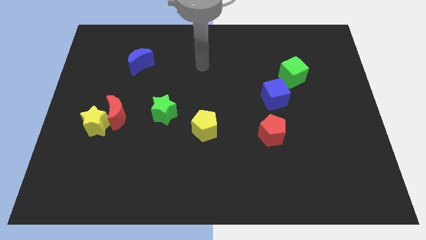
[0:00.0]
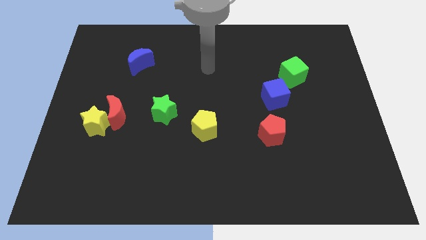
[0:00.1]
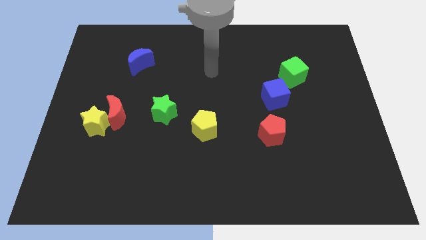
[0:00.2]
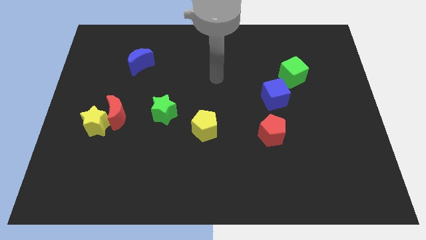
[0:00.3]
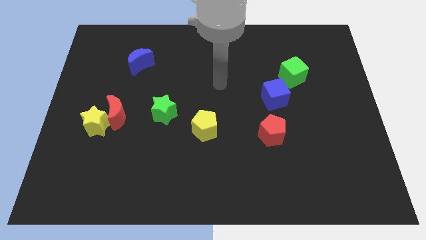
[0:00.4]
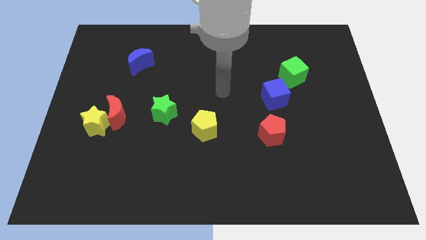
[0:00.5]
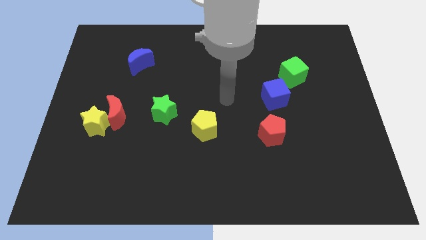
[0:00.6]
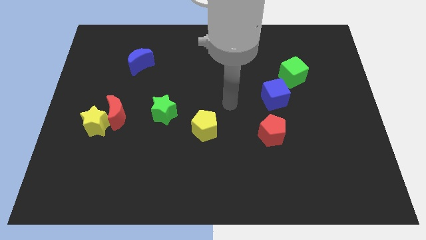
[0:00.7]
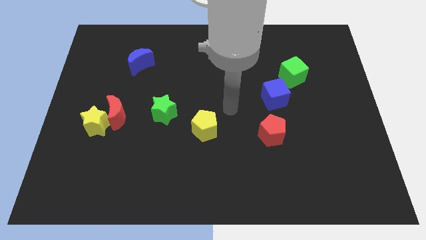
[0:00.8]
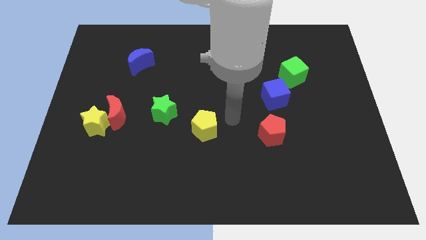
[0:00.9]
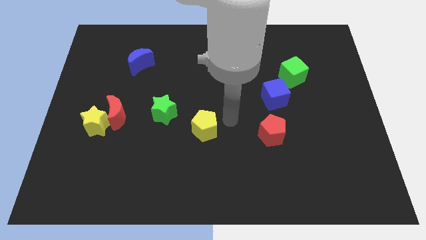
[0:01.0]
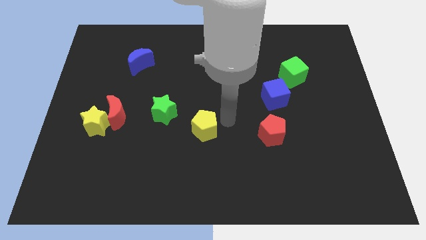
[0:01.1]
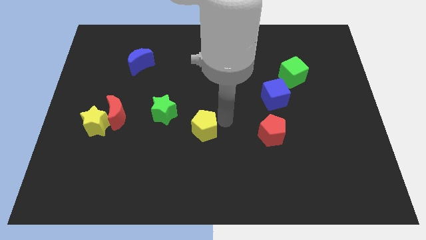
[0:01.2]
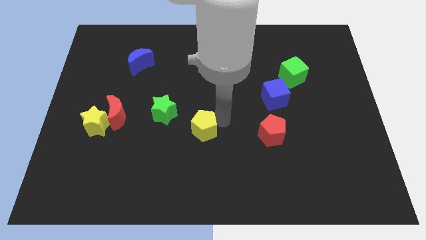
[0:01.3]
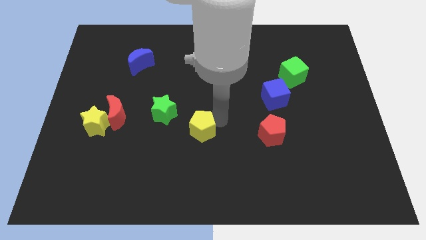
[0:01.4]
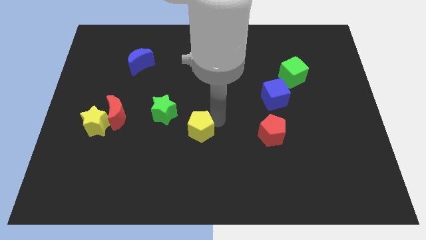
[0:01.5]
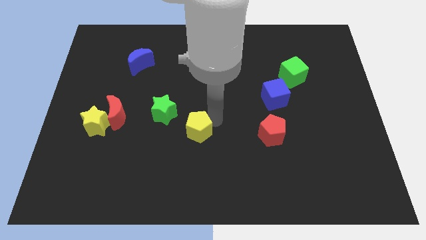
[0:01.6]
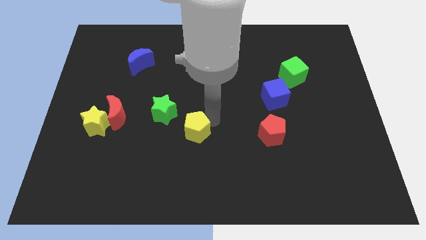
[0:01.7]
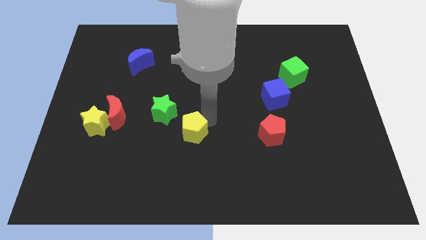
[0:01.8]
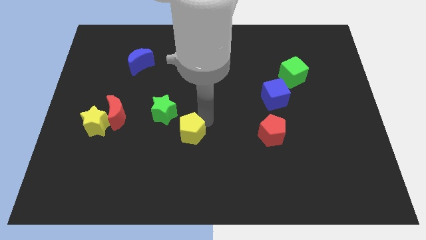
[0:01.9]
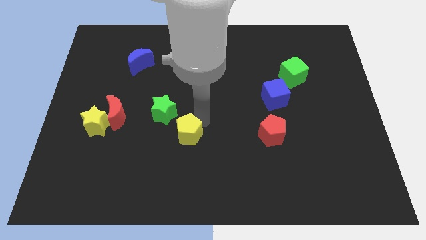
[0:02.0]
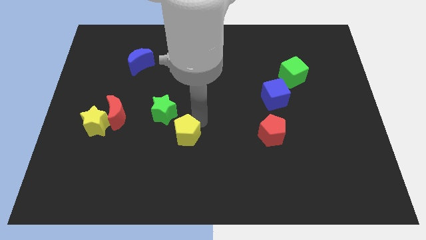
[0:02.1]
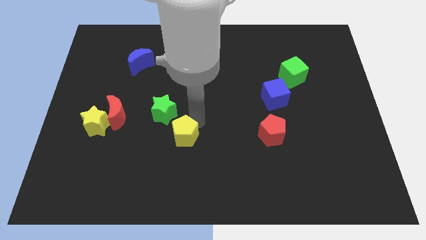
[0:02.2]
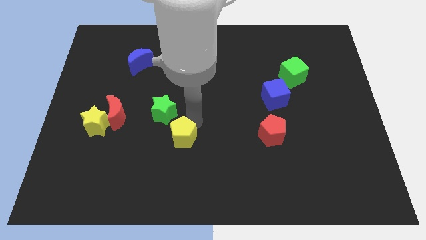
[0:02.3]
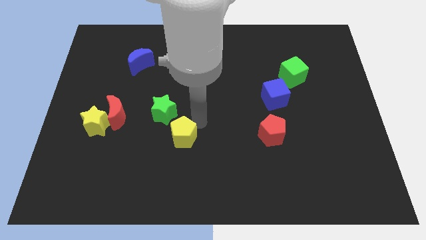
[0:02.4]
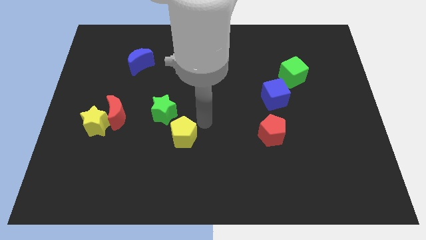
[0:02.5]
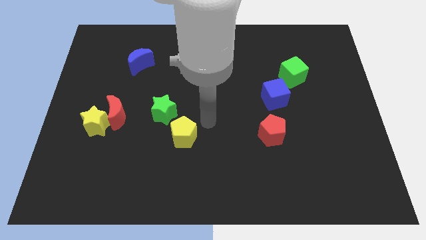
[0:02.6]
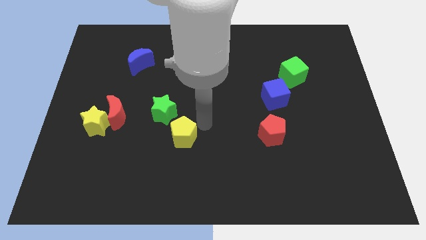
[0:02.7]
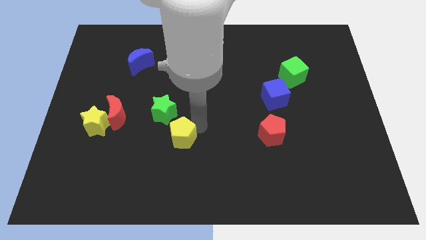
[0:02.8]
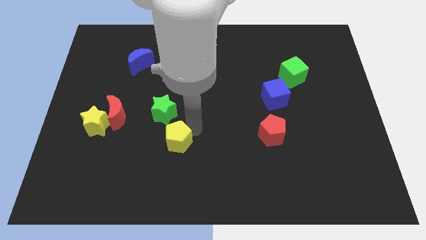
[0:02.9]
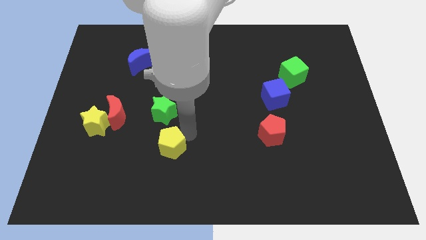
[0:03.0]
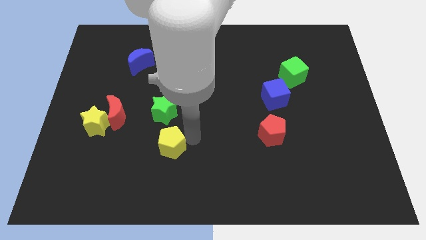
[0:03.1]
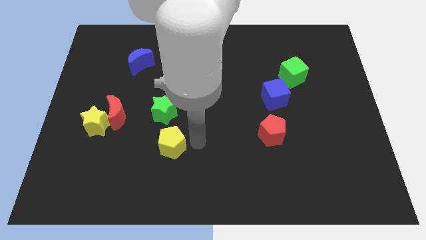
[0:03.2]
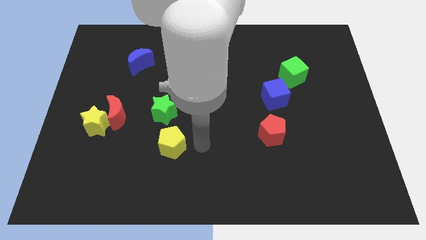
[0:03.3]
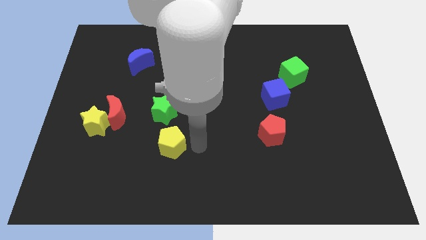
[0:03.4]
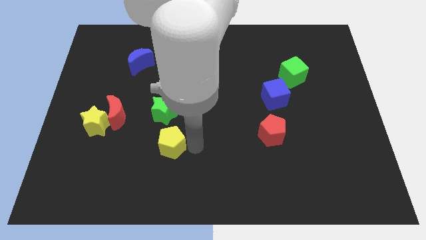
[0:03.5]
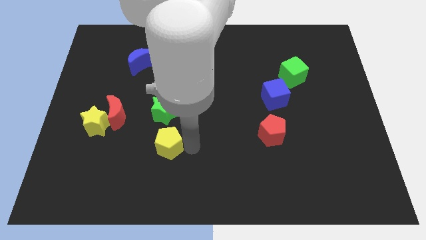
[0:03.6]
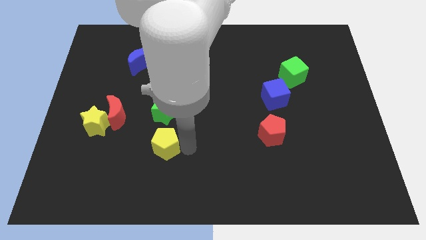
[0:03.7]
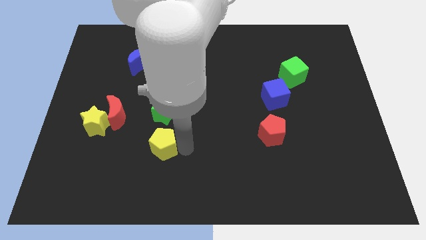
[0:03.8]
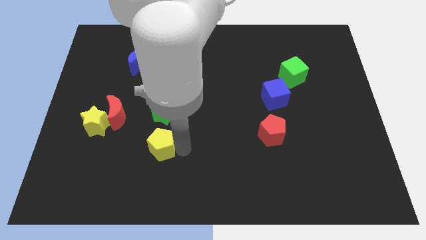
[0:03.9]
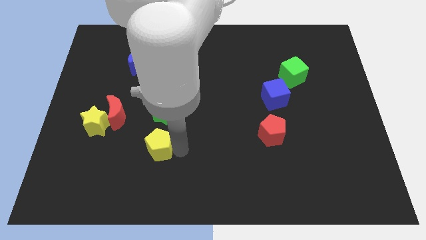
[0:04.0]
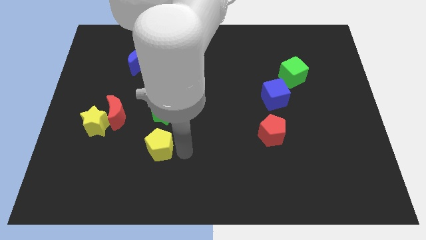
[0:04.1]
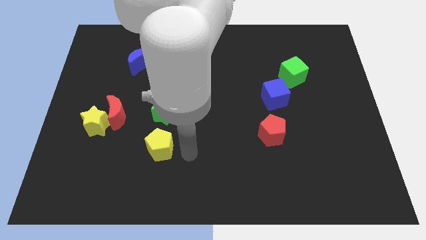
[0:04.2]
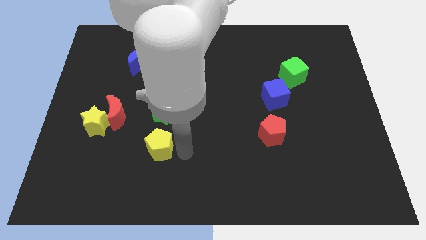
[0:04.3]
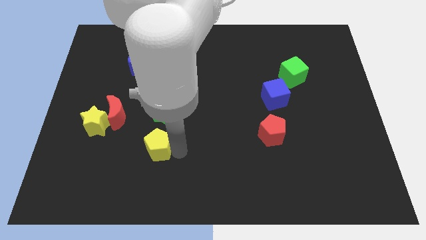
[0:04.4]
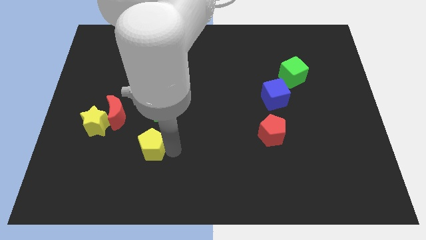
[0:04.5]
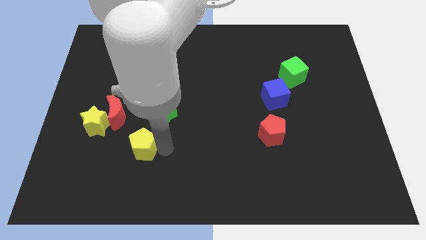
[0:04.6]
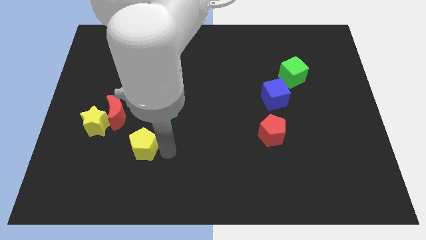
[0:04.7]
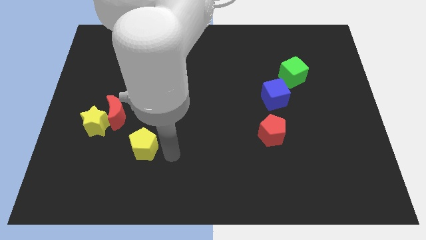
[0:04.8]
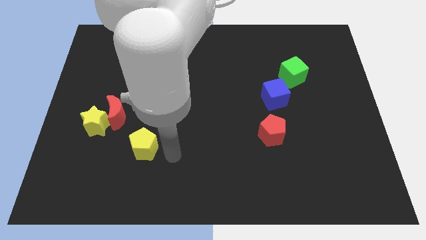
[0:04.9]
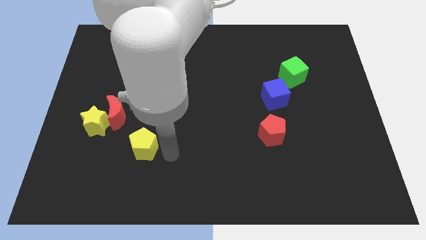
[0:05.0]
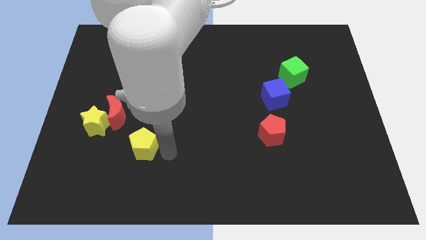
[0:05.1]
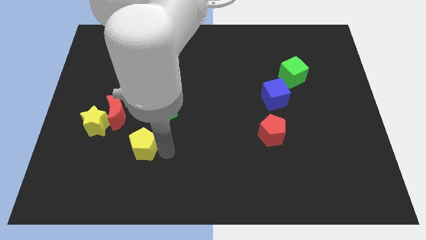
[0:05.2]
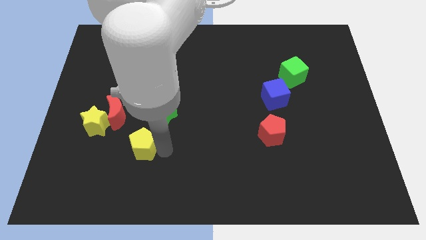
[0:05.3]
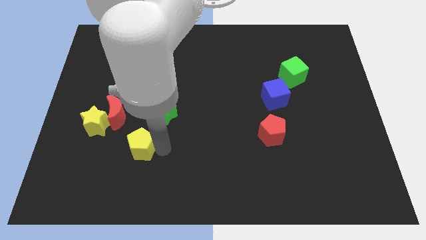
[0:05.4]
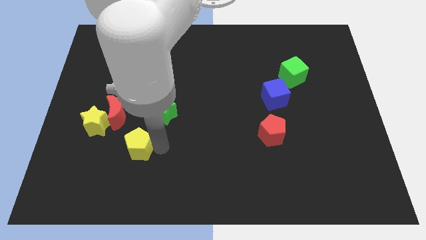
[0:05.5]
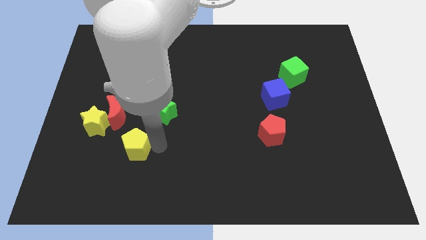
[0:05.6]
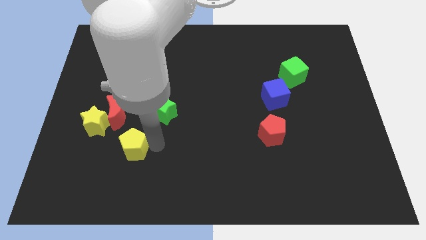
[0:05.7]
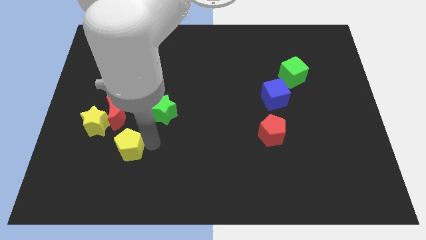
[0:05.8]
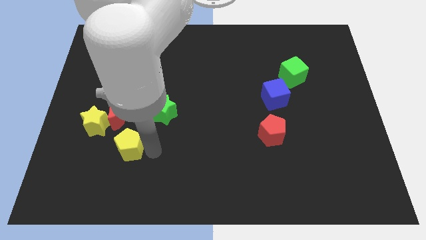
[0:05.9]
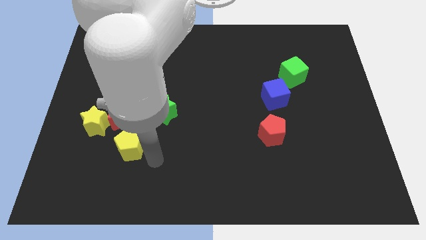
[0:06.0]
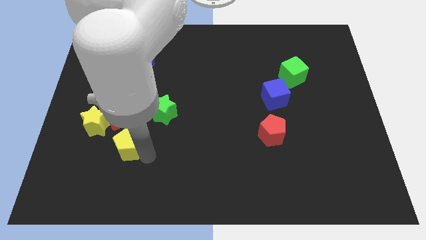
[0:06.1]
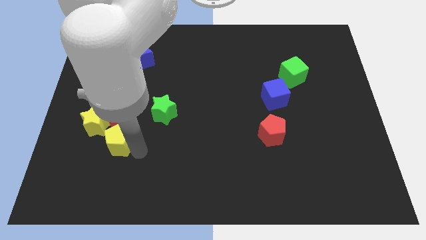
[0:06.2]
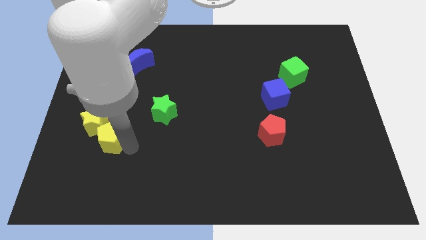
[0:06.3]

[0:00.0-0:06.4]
slide the yellow pentagon close to the yellow star

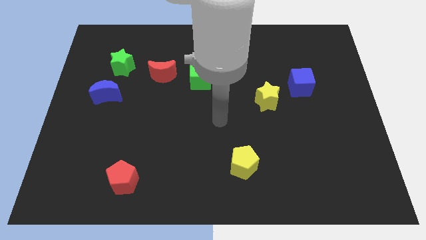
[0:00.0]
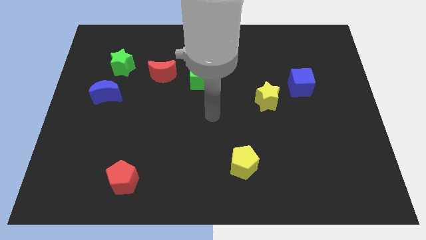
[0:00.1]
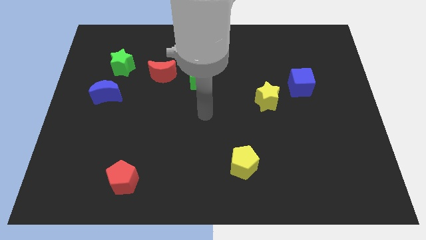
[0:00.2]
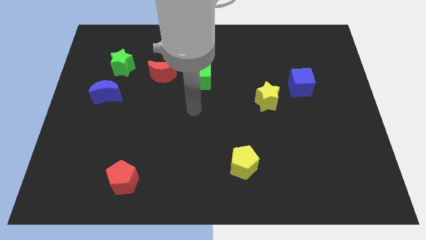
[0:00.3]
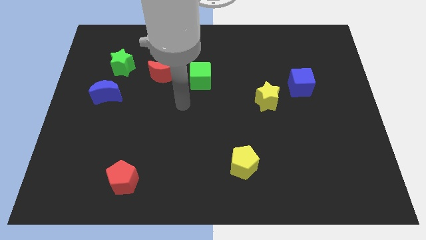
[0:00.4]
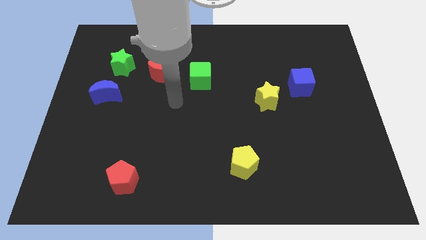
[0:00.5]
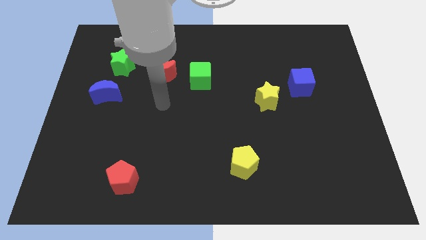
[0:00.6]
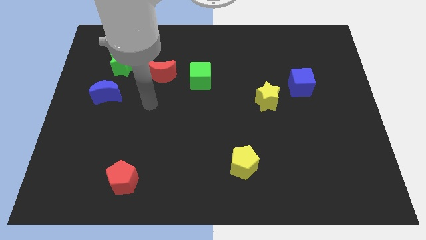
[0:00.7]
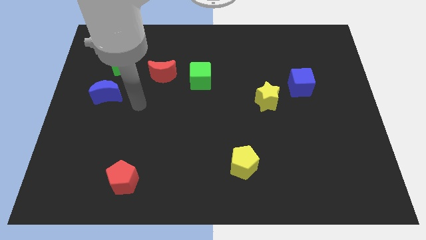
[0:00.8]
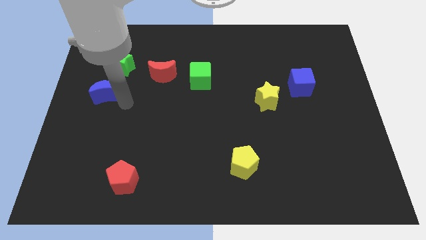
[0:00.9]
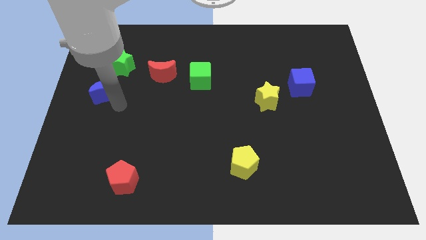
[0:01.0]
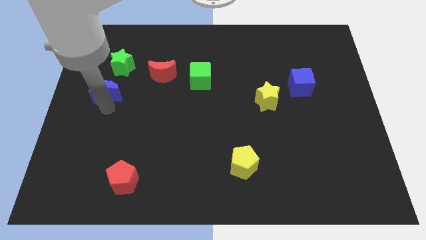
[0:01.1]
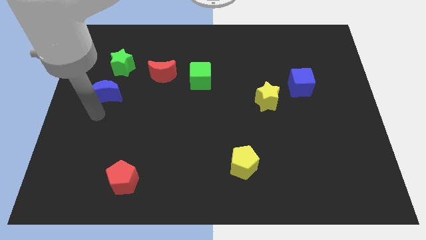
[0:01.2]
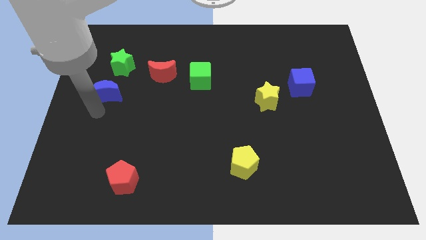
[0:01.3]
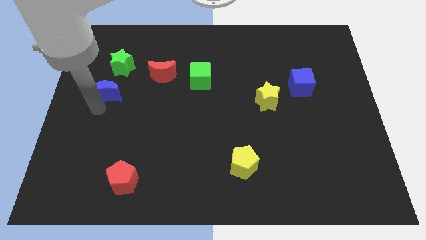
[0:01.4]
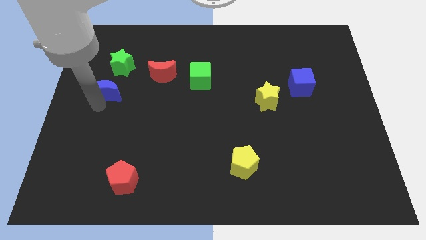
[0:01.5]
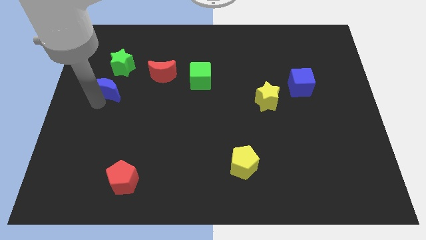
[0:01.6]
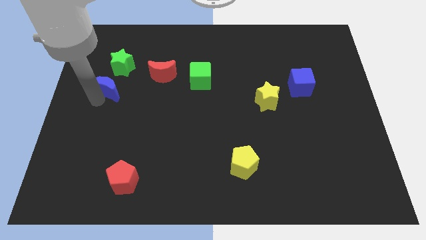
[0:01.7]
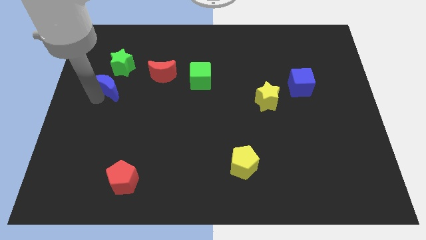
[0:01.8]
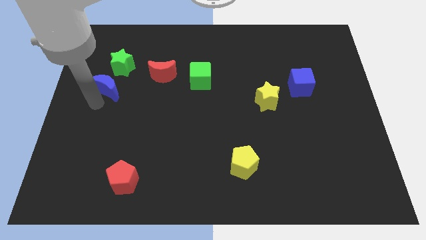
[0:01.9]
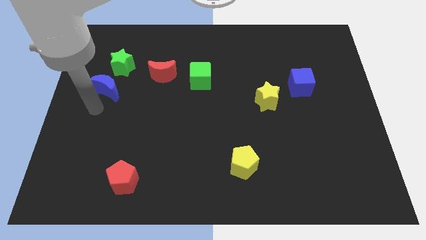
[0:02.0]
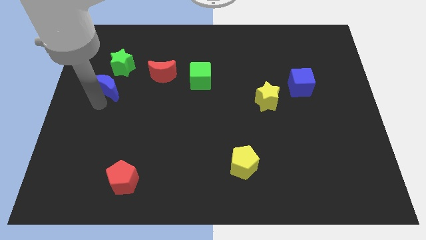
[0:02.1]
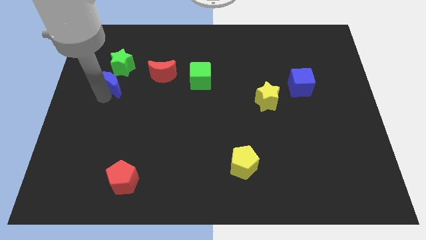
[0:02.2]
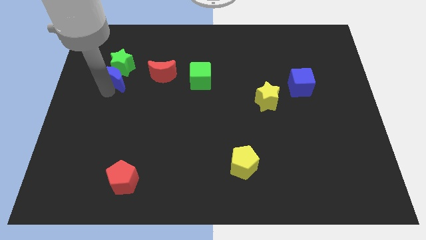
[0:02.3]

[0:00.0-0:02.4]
push the blue moon to the green star

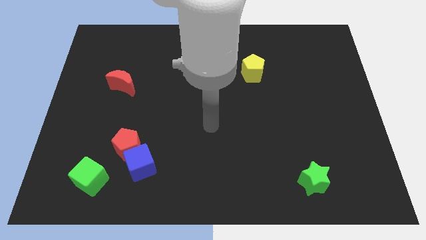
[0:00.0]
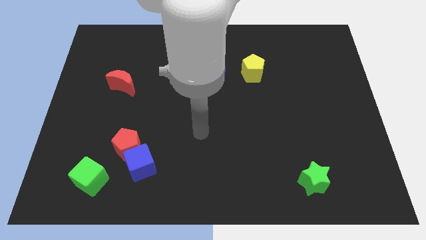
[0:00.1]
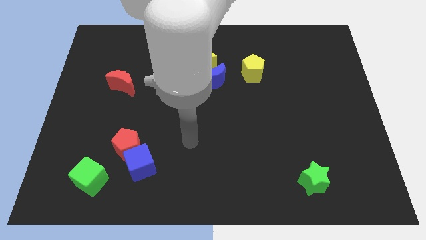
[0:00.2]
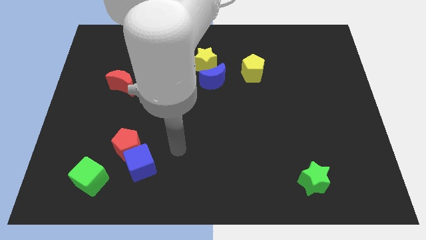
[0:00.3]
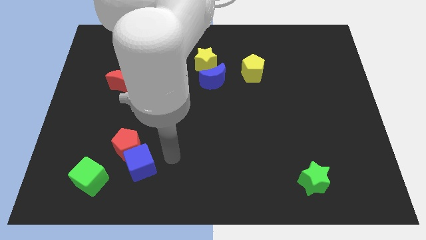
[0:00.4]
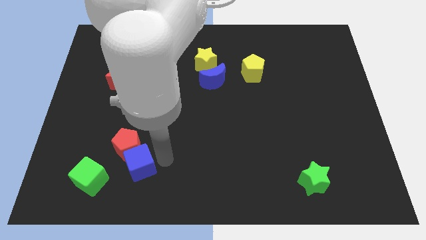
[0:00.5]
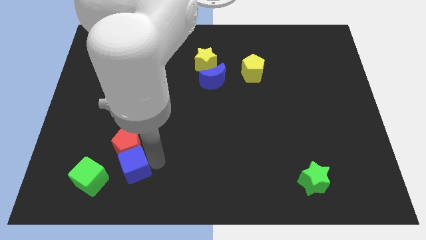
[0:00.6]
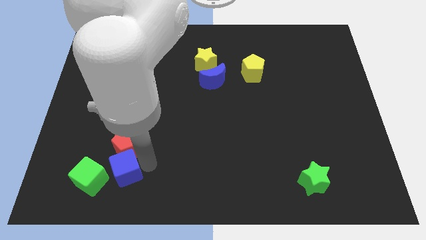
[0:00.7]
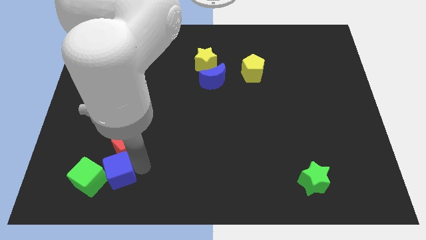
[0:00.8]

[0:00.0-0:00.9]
move the blue cube to the green cube
